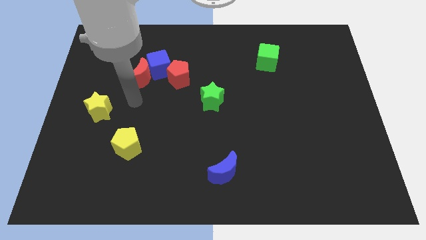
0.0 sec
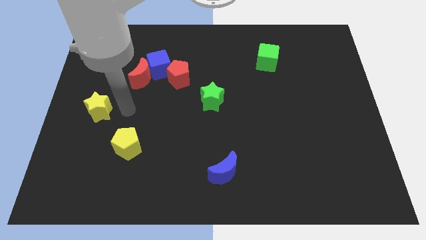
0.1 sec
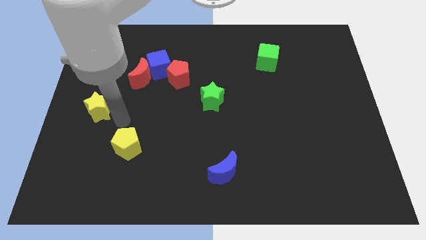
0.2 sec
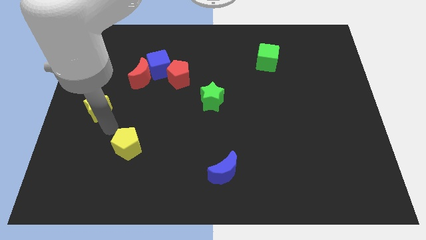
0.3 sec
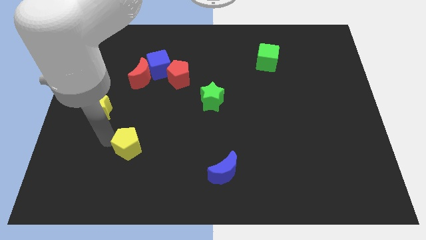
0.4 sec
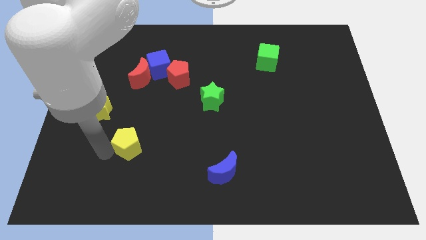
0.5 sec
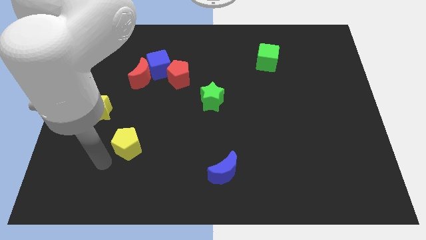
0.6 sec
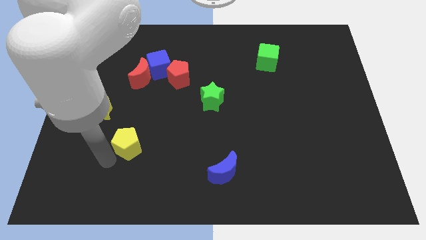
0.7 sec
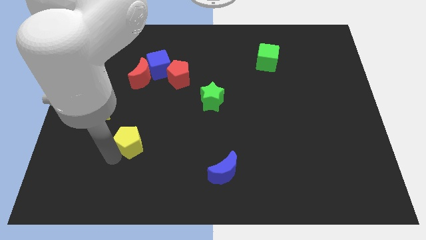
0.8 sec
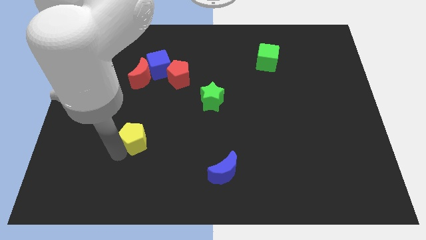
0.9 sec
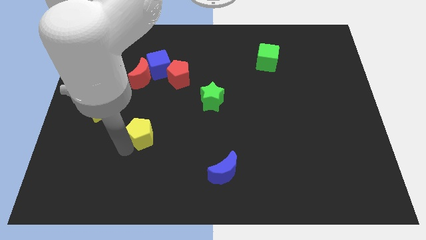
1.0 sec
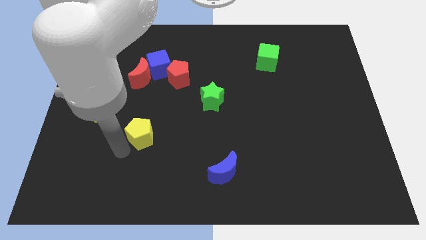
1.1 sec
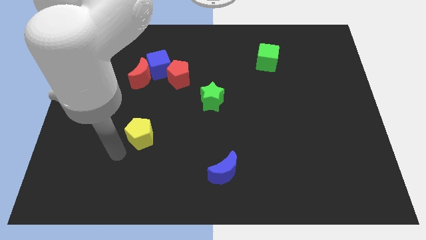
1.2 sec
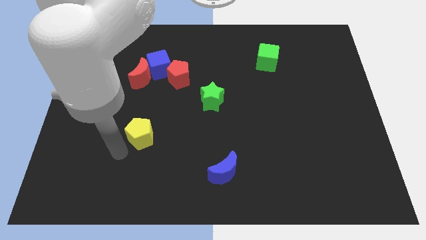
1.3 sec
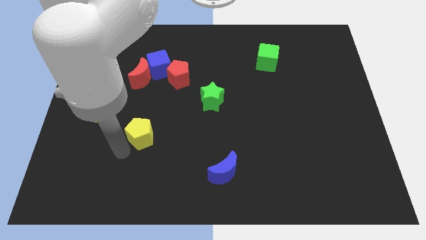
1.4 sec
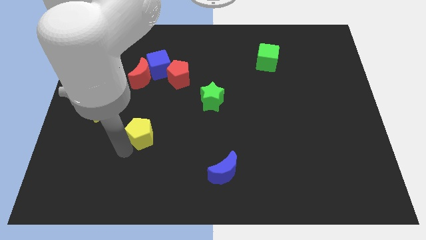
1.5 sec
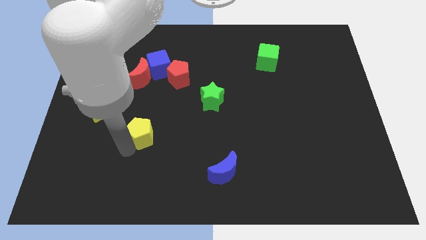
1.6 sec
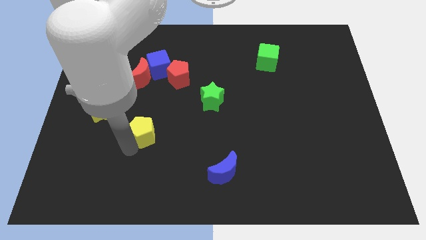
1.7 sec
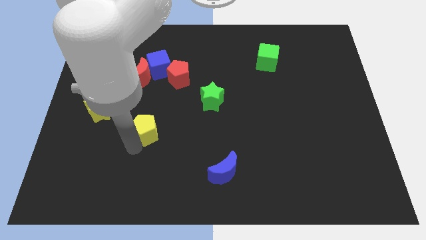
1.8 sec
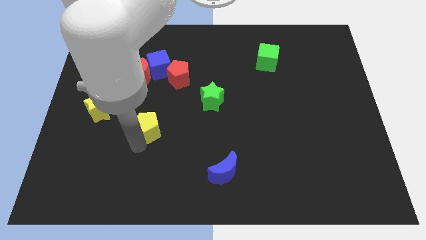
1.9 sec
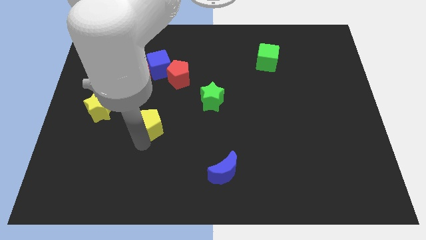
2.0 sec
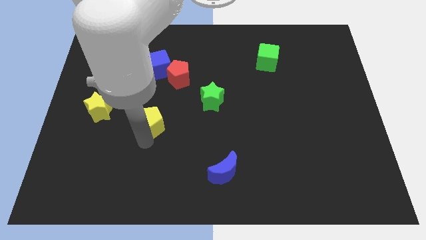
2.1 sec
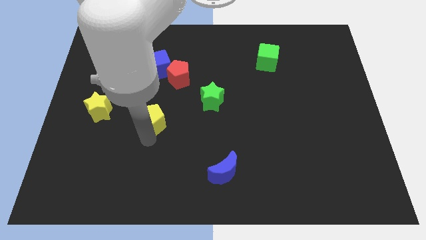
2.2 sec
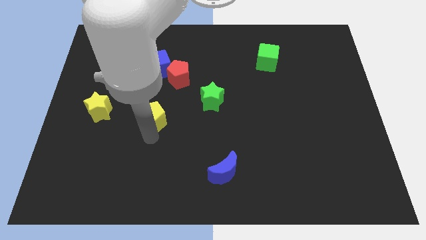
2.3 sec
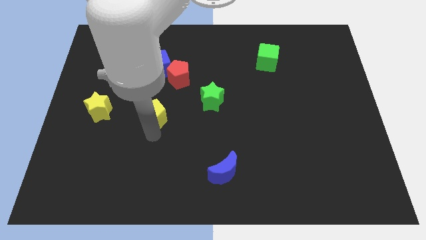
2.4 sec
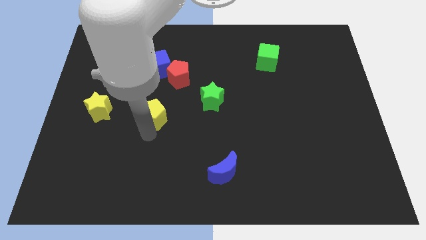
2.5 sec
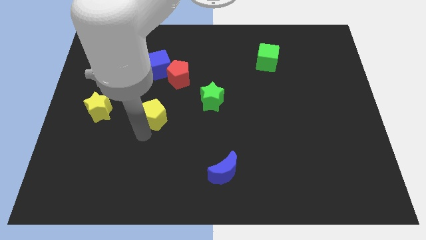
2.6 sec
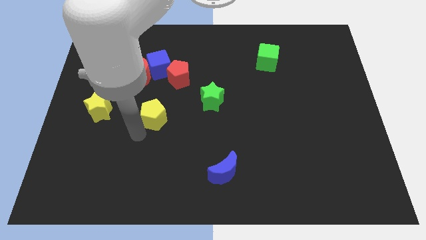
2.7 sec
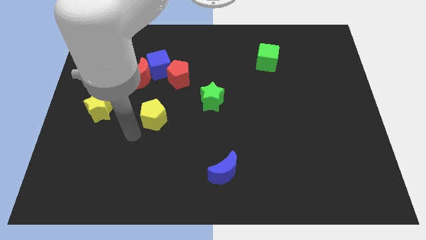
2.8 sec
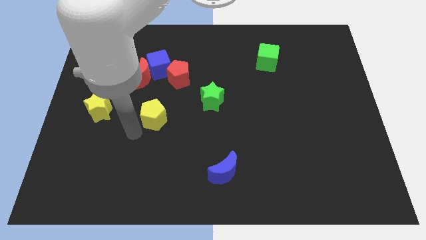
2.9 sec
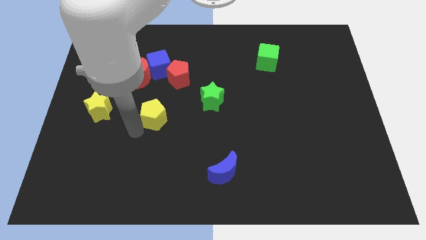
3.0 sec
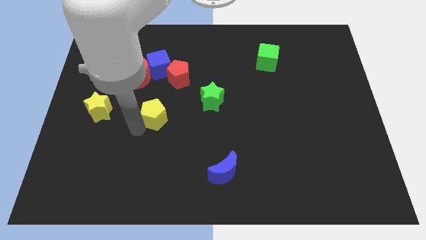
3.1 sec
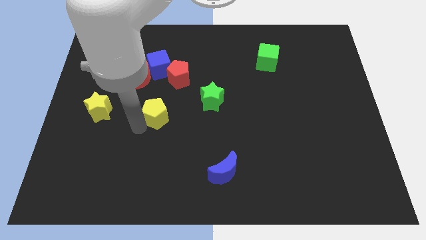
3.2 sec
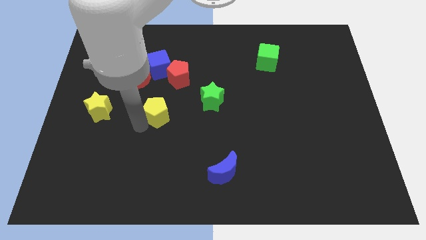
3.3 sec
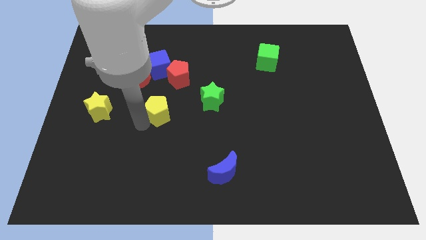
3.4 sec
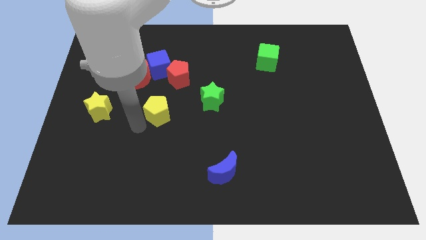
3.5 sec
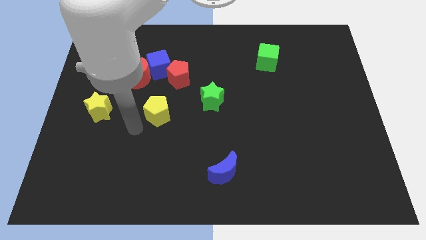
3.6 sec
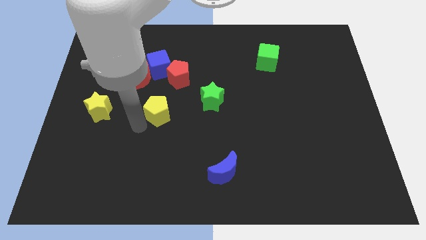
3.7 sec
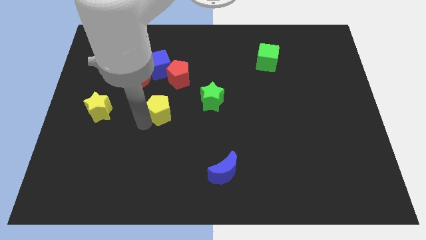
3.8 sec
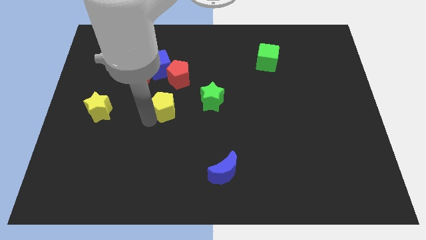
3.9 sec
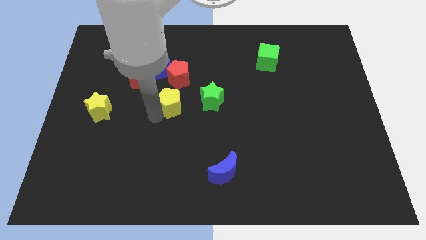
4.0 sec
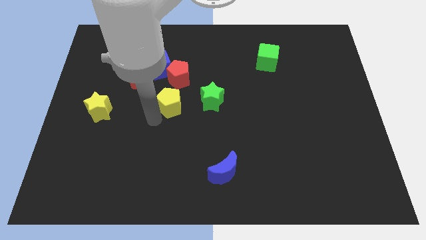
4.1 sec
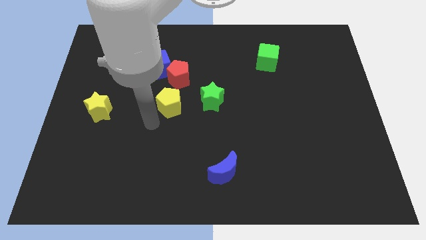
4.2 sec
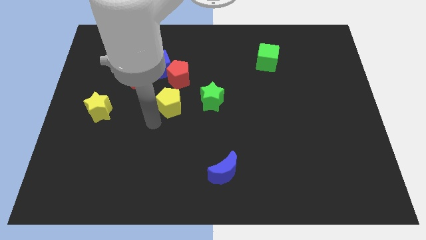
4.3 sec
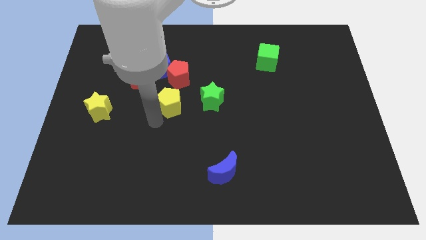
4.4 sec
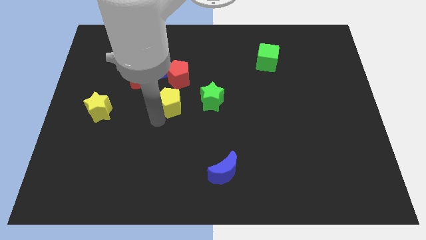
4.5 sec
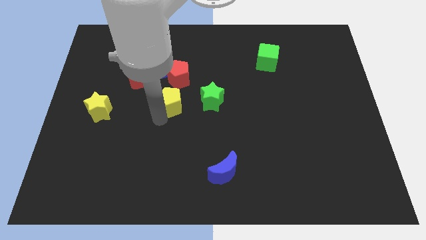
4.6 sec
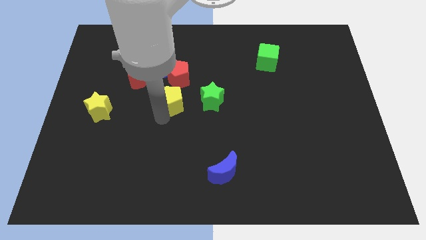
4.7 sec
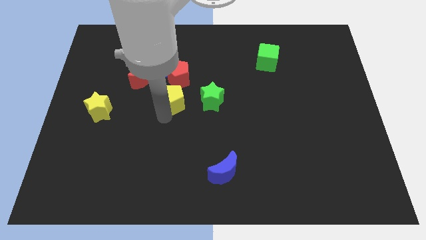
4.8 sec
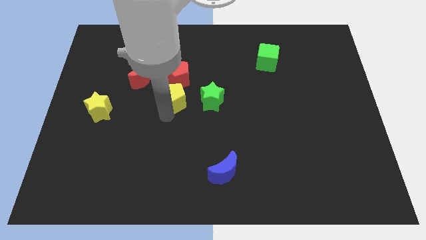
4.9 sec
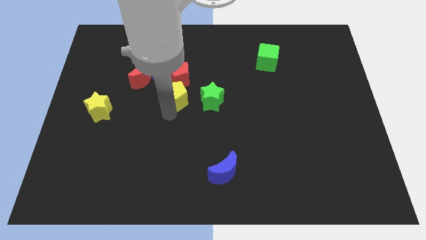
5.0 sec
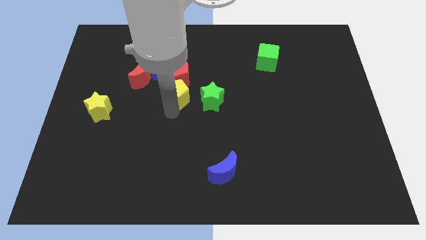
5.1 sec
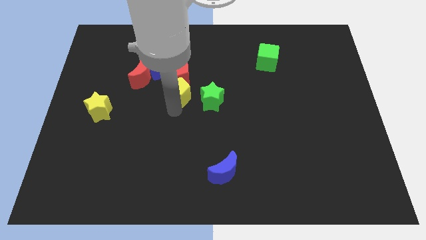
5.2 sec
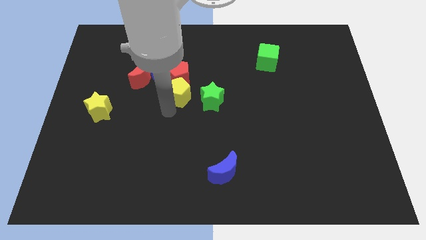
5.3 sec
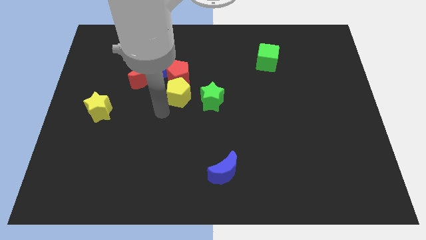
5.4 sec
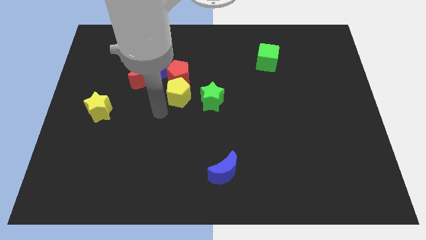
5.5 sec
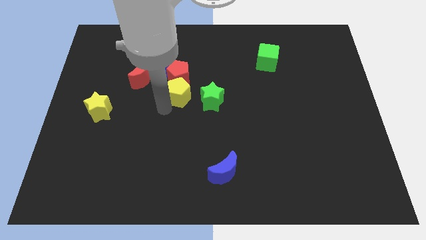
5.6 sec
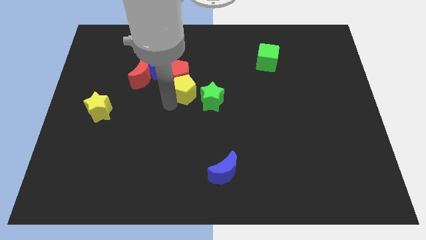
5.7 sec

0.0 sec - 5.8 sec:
push the yellow pentagon to the right side of the red moon

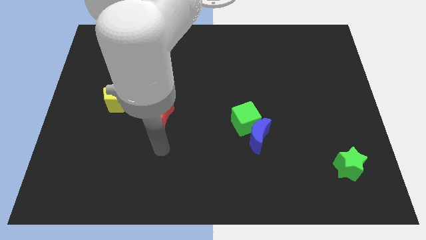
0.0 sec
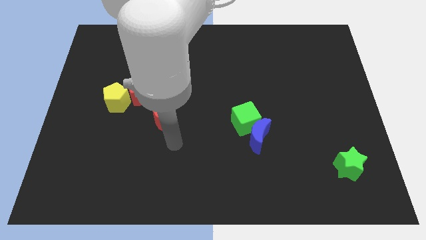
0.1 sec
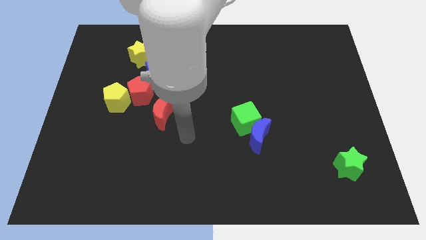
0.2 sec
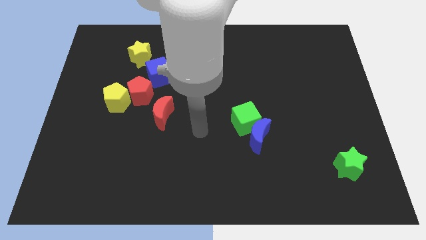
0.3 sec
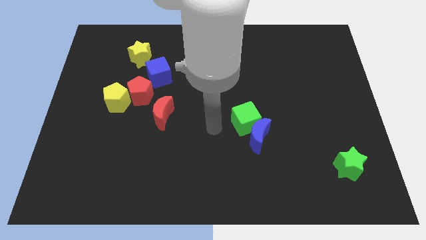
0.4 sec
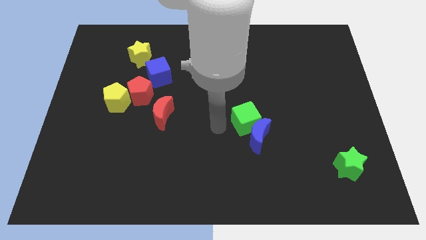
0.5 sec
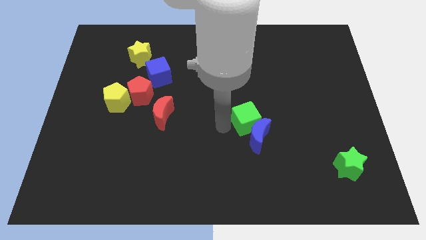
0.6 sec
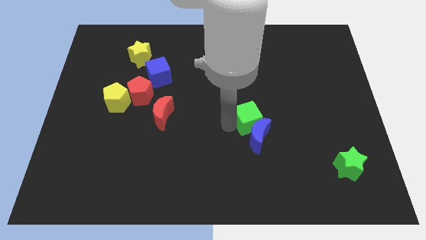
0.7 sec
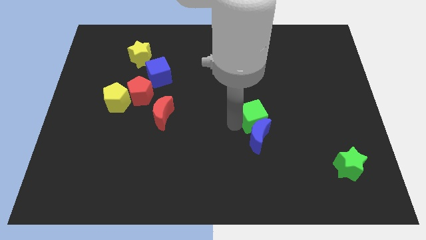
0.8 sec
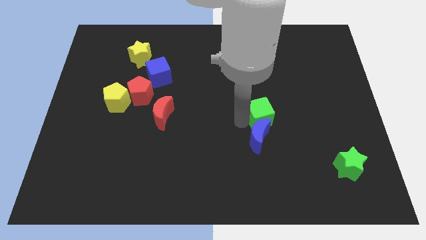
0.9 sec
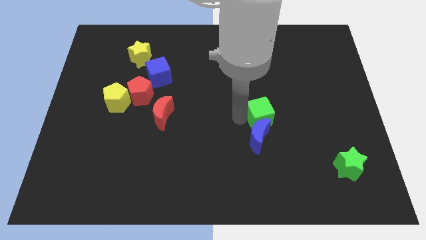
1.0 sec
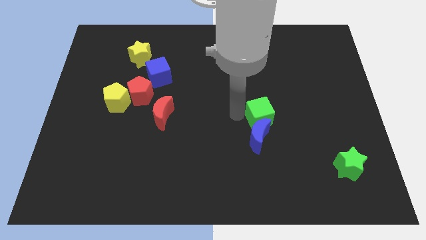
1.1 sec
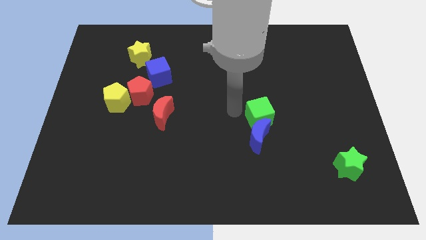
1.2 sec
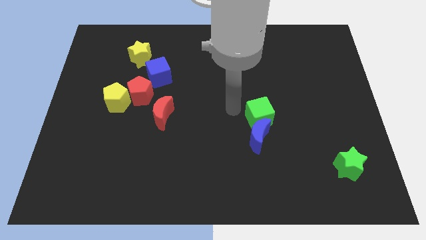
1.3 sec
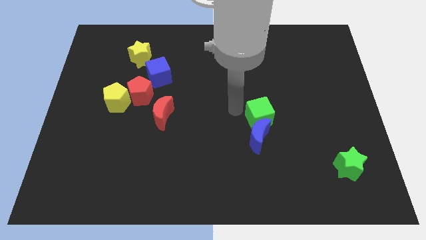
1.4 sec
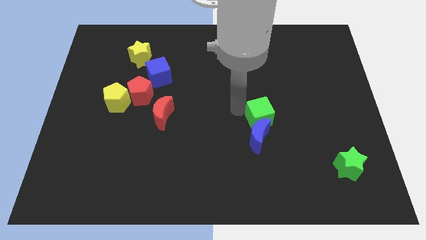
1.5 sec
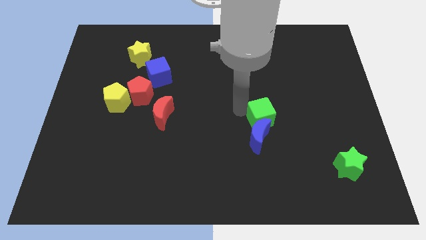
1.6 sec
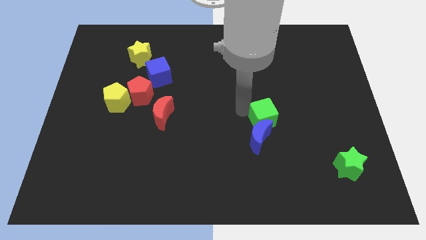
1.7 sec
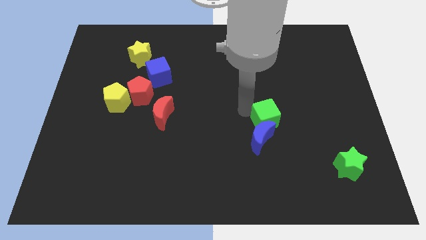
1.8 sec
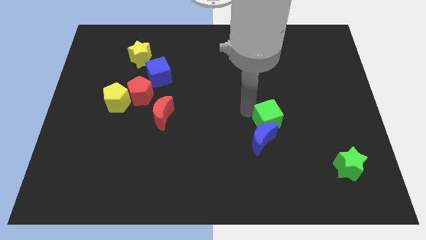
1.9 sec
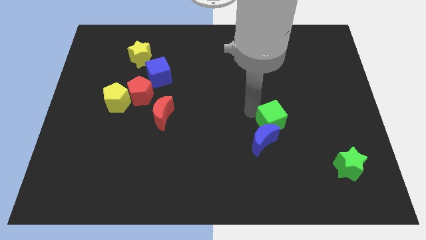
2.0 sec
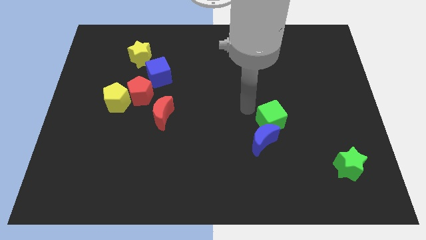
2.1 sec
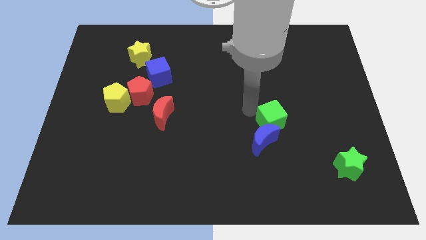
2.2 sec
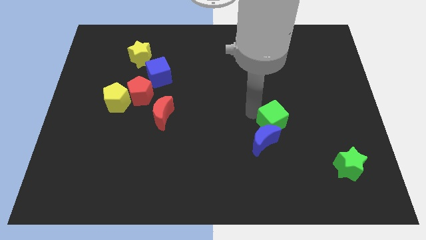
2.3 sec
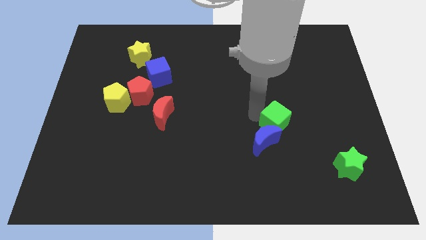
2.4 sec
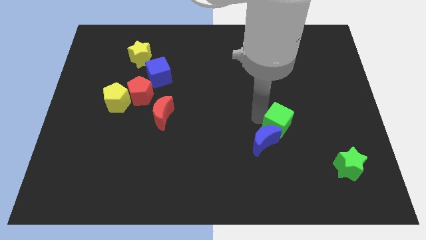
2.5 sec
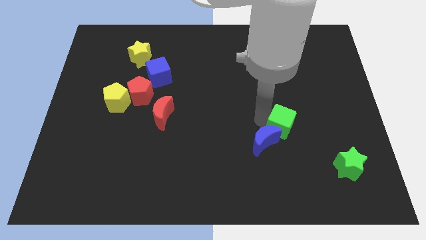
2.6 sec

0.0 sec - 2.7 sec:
slide the green cube just right of the blue moon
